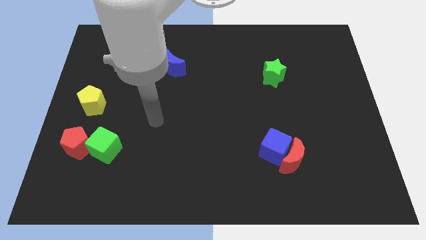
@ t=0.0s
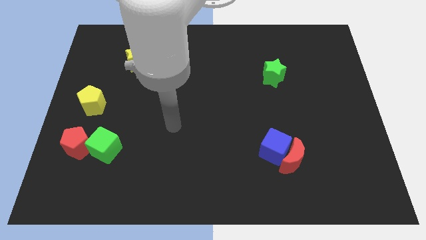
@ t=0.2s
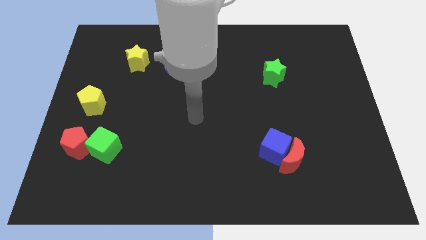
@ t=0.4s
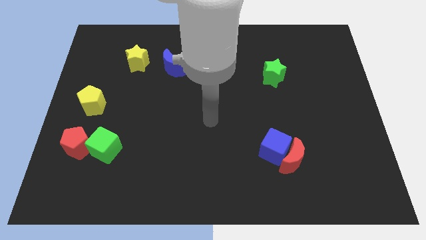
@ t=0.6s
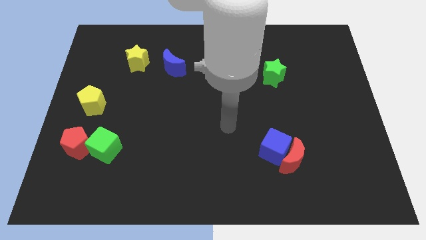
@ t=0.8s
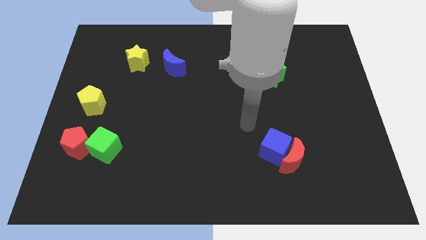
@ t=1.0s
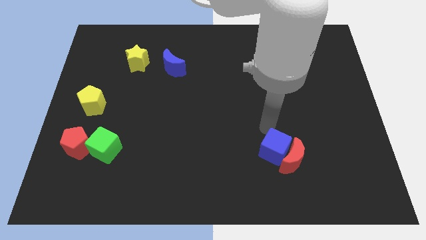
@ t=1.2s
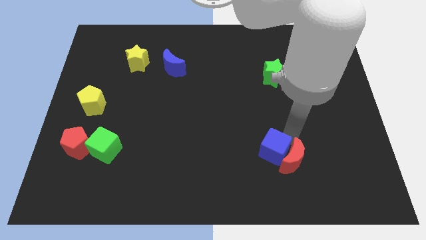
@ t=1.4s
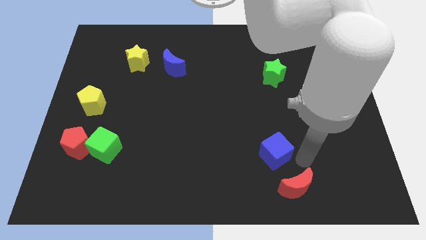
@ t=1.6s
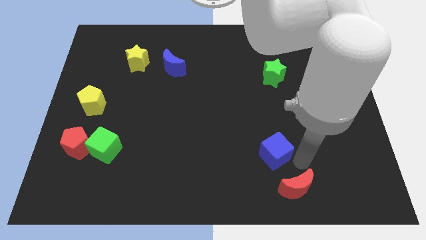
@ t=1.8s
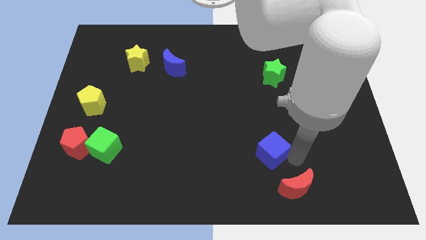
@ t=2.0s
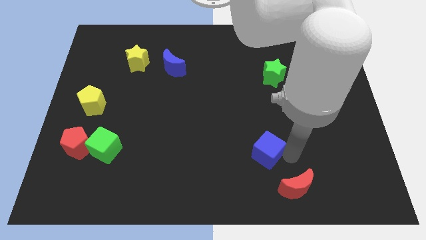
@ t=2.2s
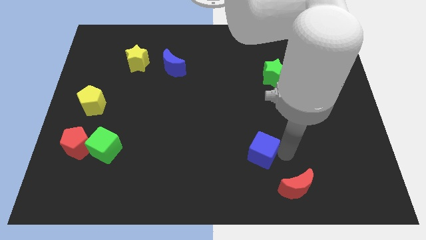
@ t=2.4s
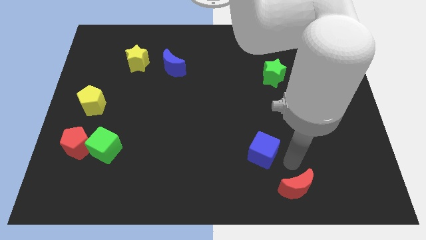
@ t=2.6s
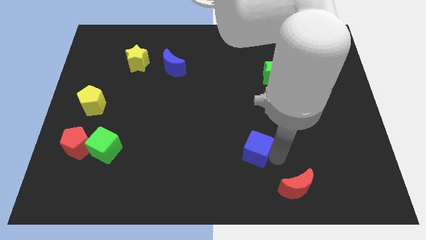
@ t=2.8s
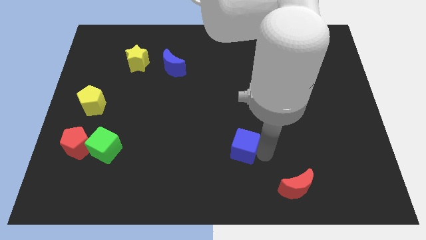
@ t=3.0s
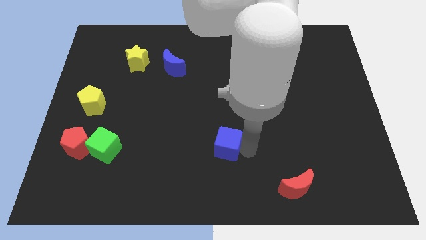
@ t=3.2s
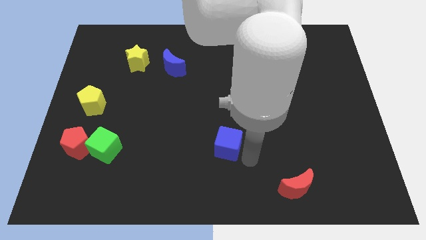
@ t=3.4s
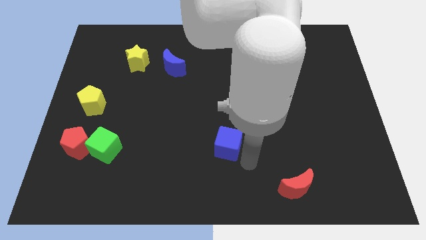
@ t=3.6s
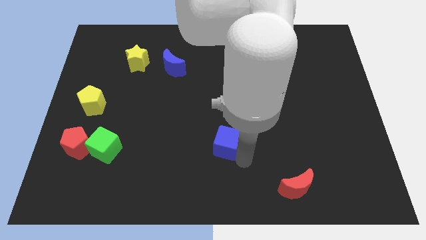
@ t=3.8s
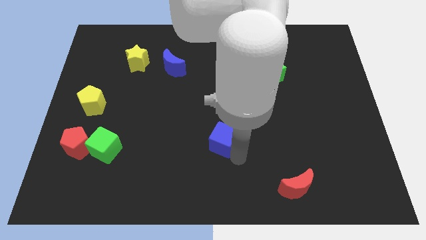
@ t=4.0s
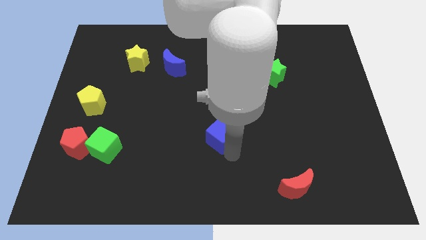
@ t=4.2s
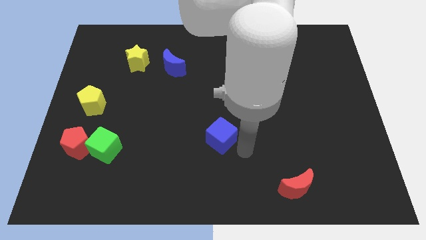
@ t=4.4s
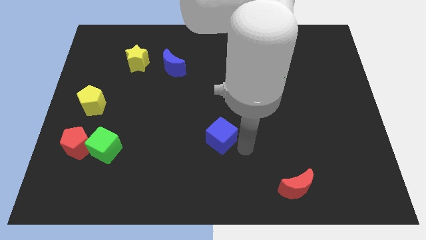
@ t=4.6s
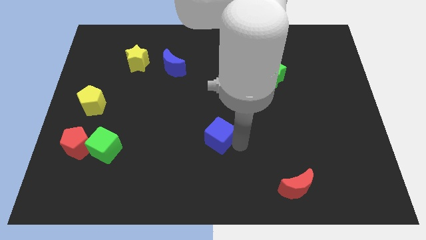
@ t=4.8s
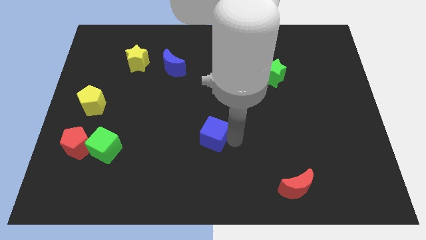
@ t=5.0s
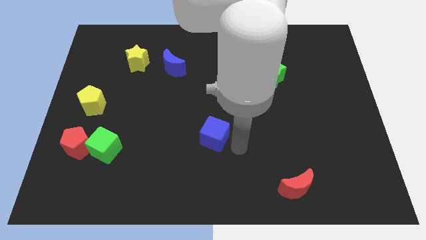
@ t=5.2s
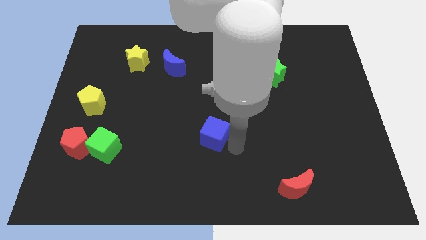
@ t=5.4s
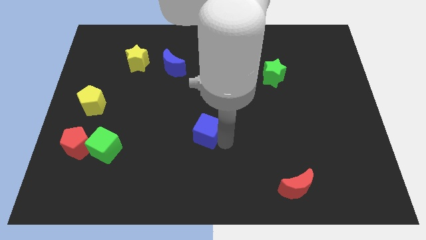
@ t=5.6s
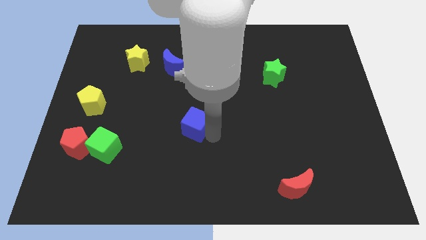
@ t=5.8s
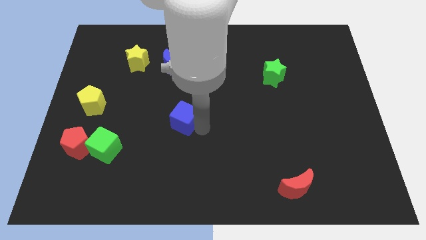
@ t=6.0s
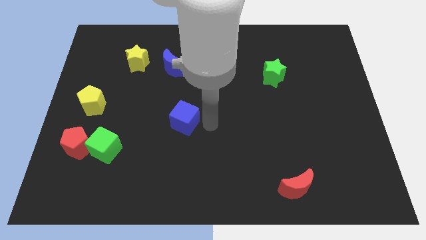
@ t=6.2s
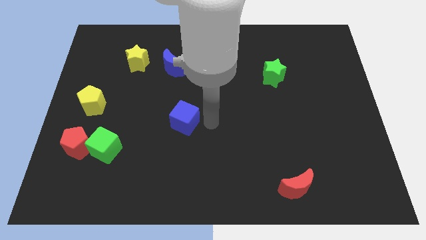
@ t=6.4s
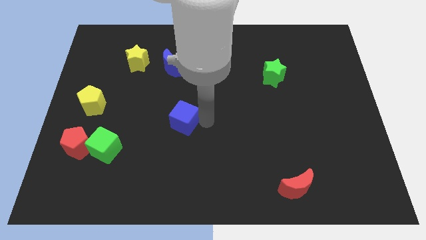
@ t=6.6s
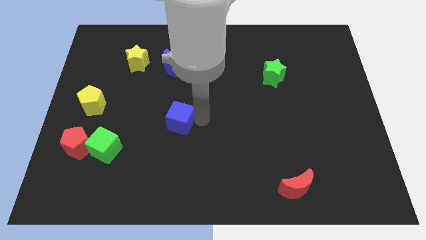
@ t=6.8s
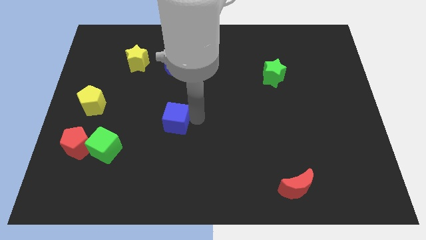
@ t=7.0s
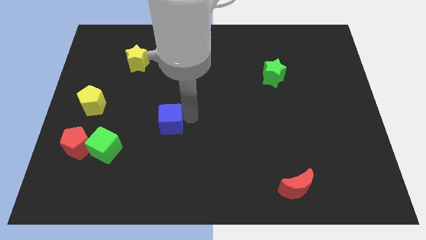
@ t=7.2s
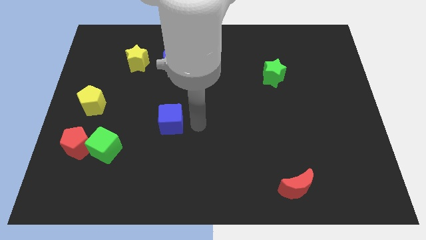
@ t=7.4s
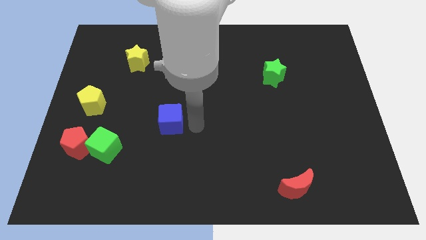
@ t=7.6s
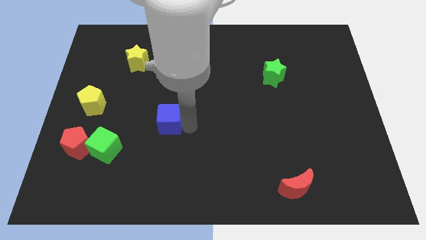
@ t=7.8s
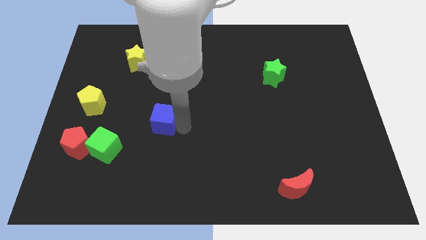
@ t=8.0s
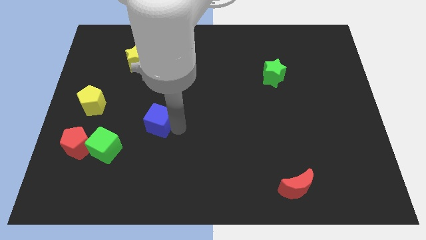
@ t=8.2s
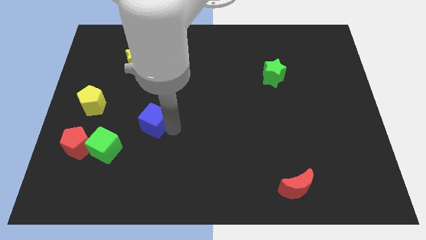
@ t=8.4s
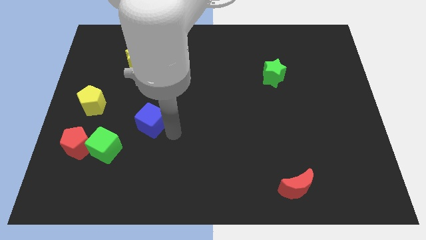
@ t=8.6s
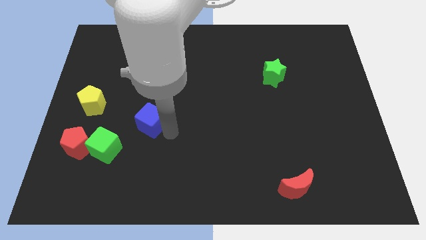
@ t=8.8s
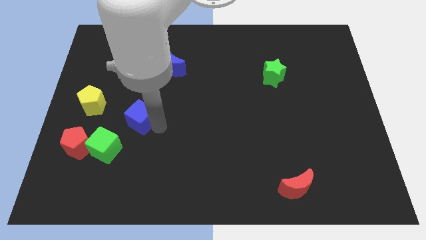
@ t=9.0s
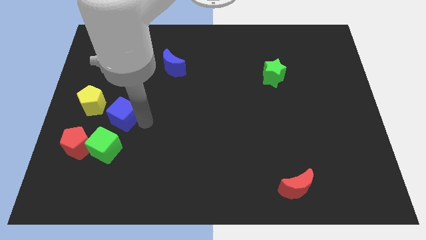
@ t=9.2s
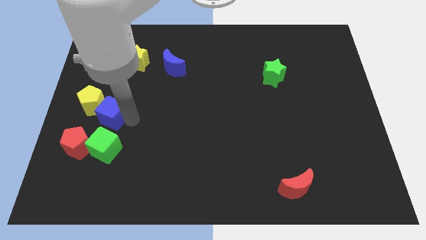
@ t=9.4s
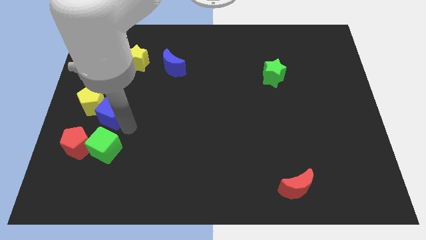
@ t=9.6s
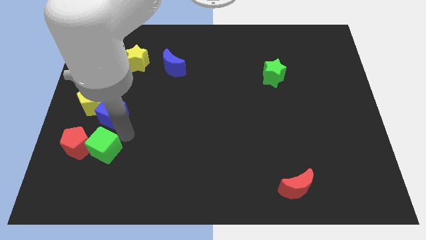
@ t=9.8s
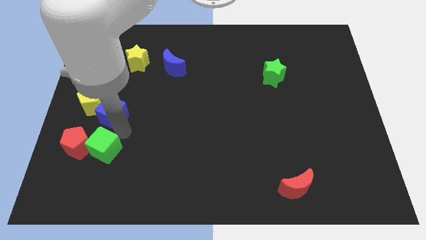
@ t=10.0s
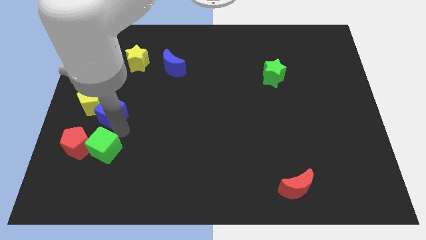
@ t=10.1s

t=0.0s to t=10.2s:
move the blue cube close to the yellow pentagon

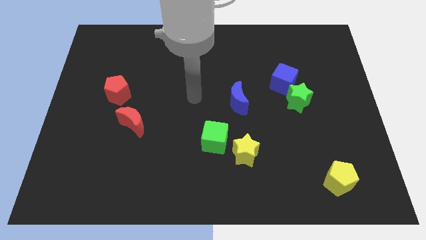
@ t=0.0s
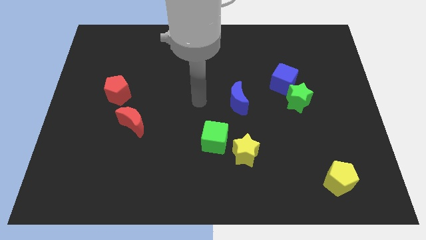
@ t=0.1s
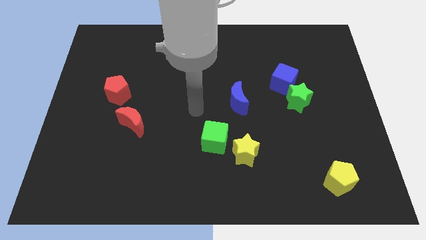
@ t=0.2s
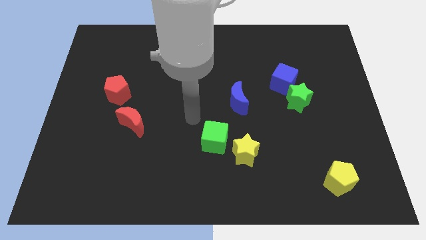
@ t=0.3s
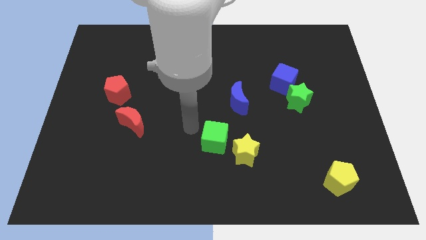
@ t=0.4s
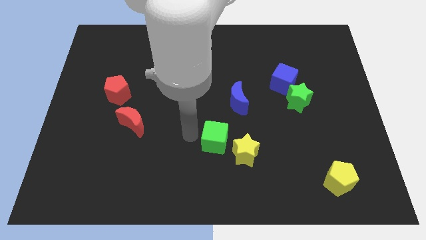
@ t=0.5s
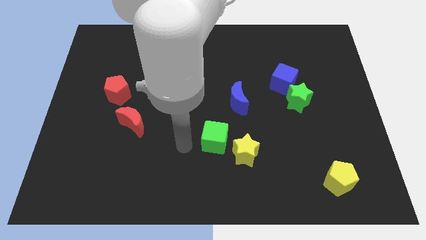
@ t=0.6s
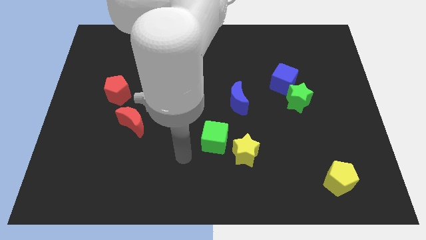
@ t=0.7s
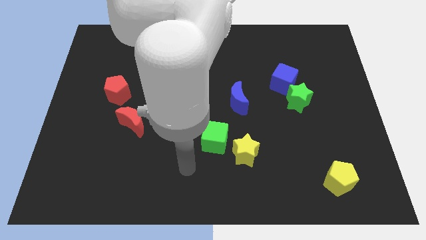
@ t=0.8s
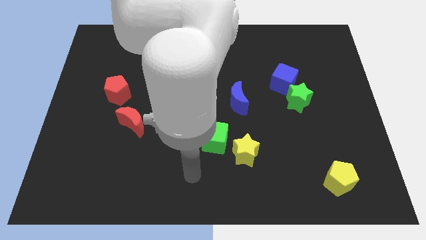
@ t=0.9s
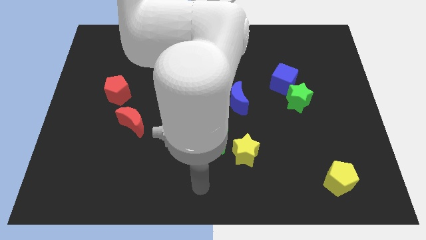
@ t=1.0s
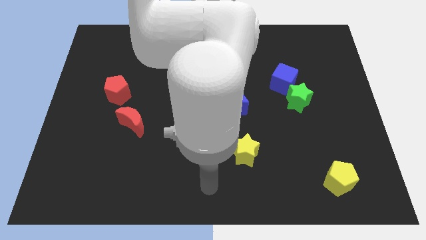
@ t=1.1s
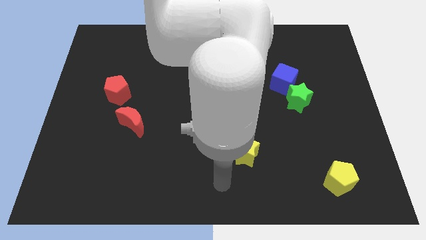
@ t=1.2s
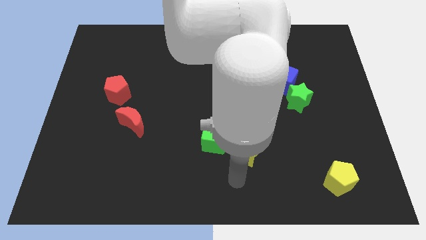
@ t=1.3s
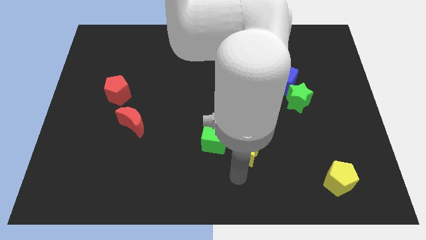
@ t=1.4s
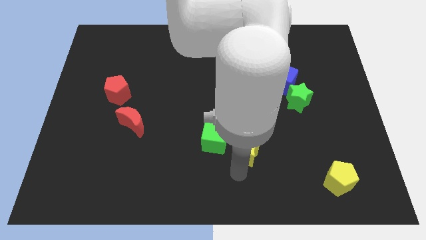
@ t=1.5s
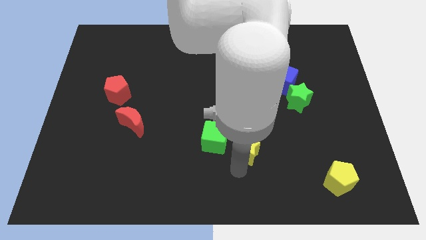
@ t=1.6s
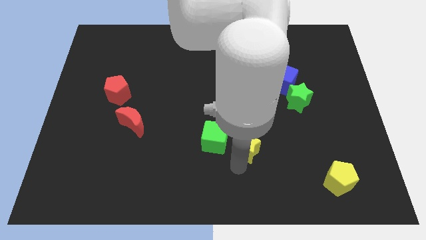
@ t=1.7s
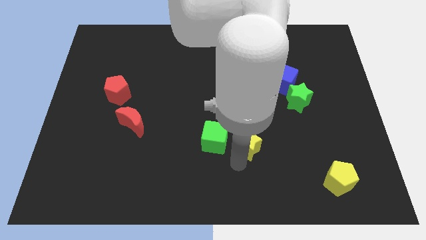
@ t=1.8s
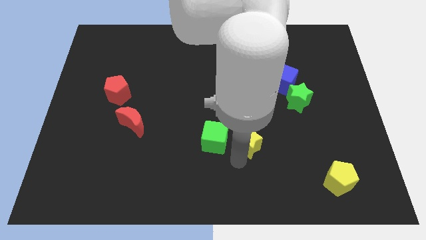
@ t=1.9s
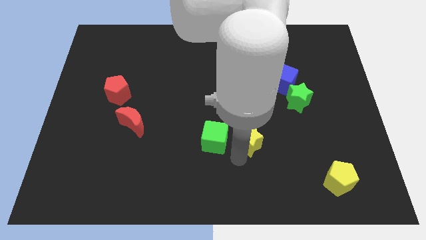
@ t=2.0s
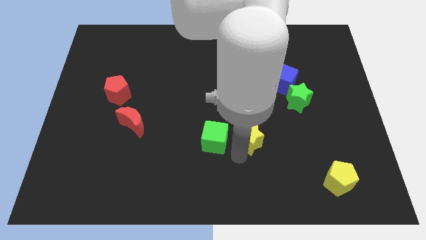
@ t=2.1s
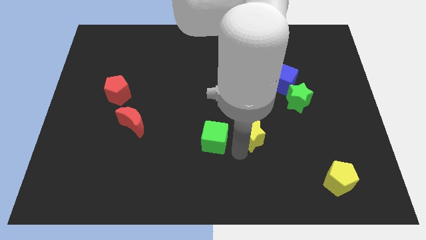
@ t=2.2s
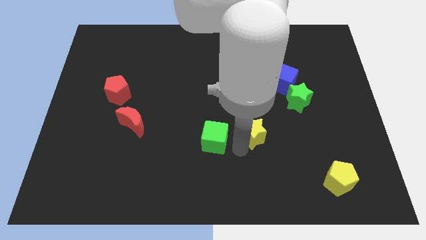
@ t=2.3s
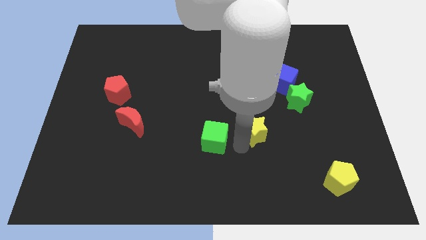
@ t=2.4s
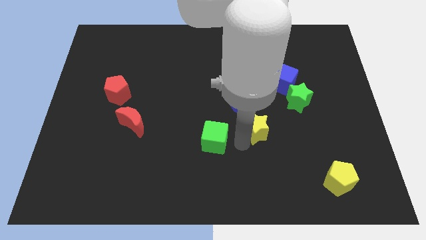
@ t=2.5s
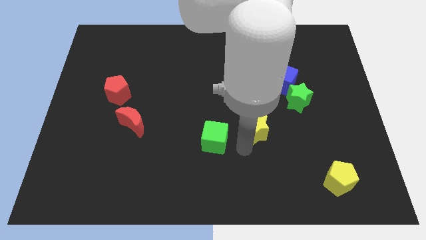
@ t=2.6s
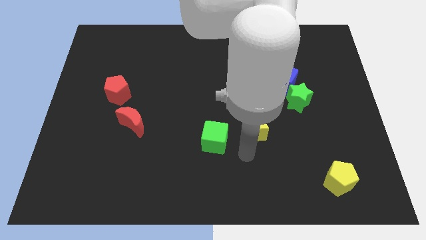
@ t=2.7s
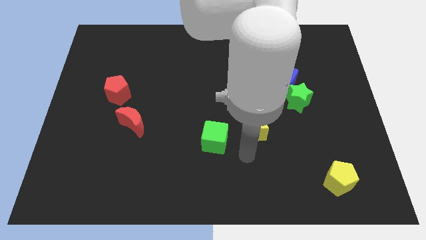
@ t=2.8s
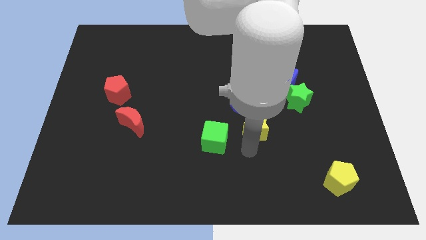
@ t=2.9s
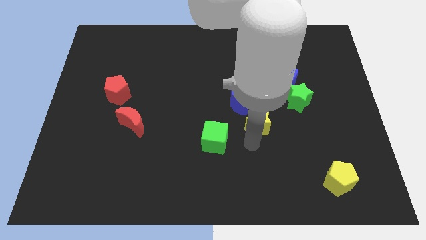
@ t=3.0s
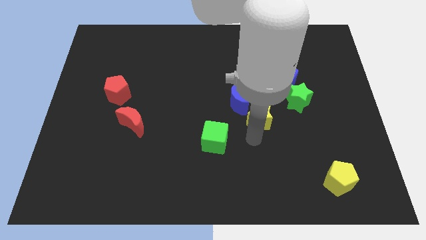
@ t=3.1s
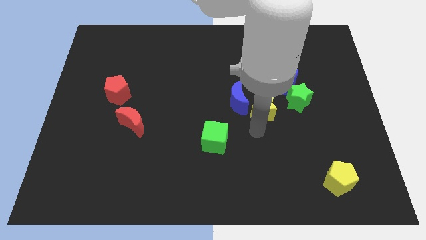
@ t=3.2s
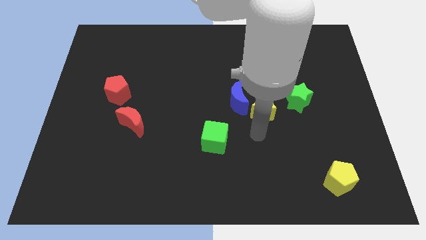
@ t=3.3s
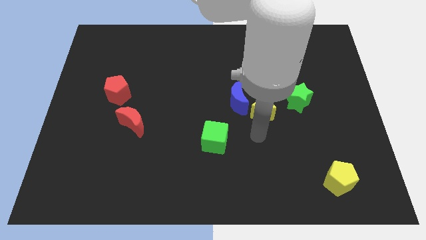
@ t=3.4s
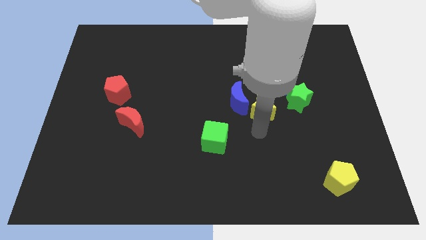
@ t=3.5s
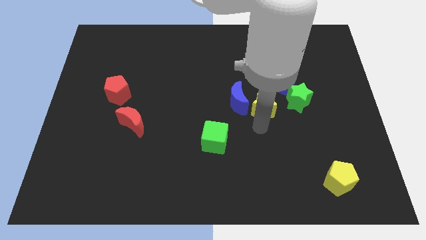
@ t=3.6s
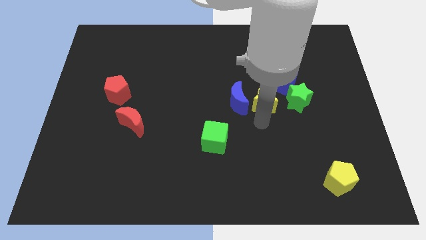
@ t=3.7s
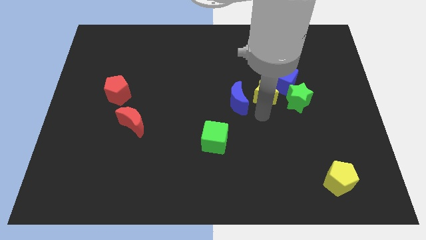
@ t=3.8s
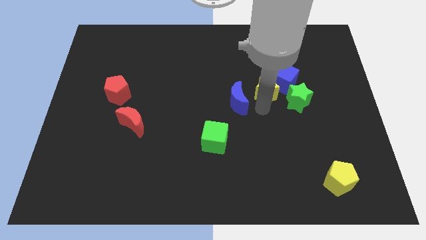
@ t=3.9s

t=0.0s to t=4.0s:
put the yellow star to the blue cube
